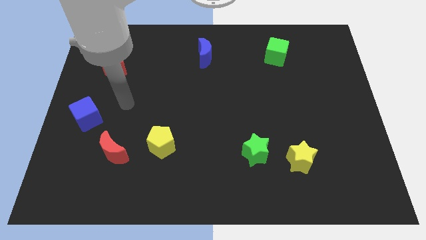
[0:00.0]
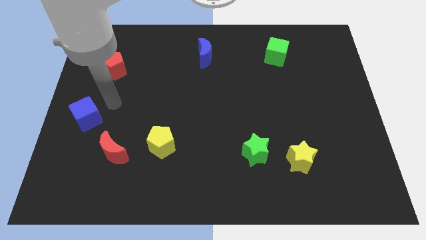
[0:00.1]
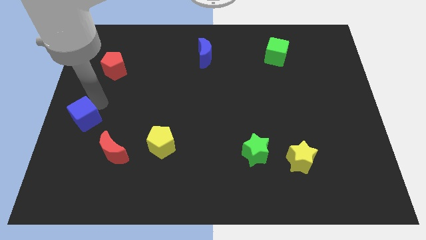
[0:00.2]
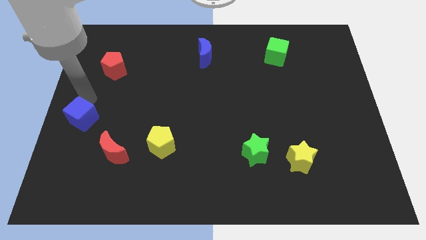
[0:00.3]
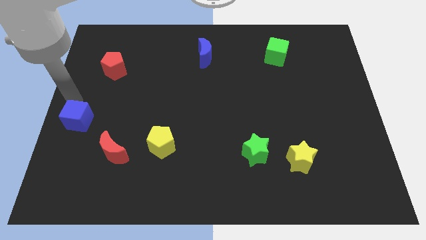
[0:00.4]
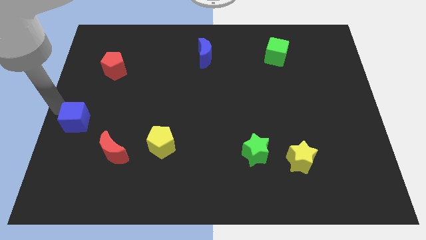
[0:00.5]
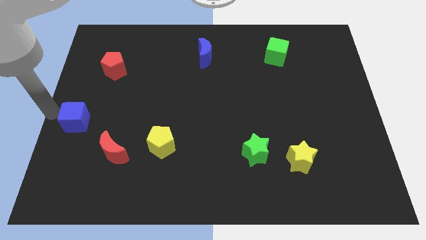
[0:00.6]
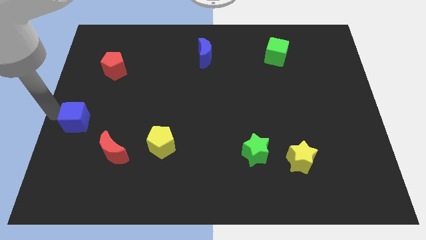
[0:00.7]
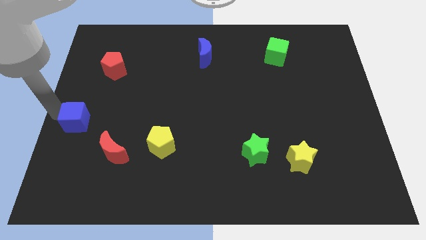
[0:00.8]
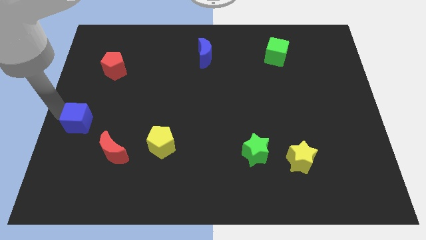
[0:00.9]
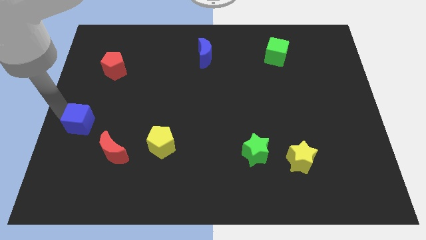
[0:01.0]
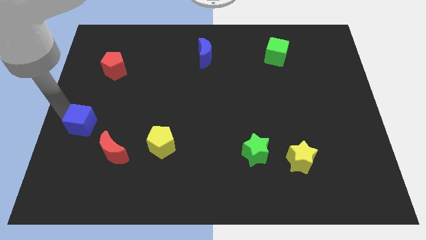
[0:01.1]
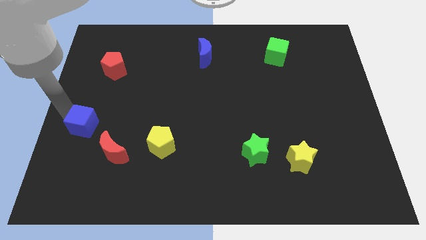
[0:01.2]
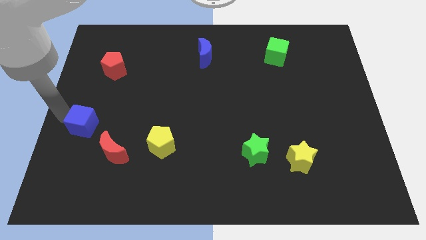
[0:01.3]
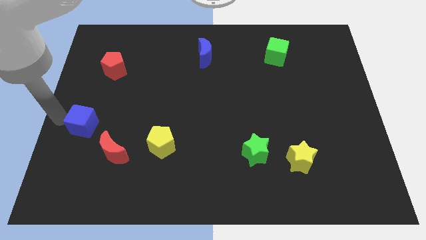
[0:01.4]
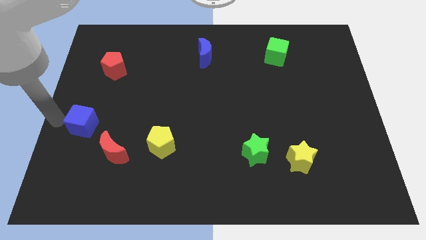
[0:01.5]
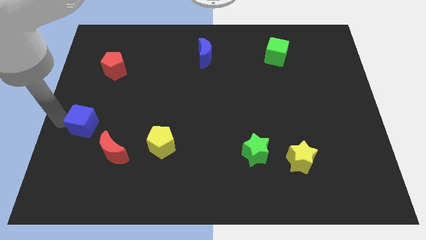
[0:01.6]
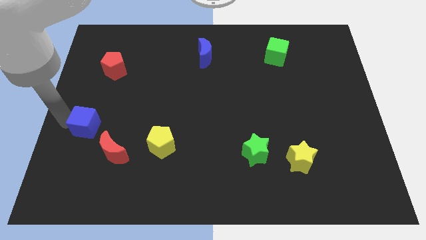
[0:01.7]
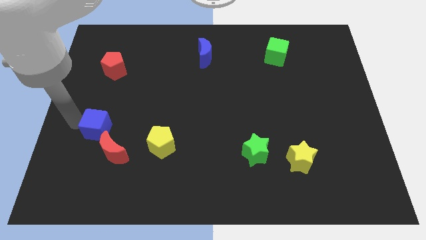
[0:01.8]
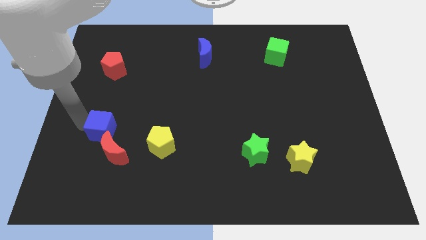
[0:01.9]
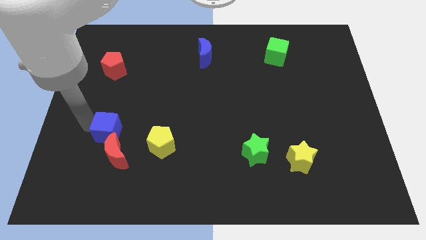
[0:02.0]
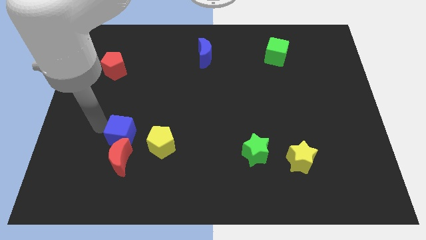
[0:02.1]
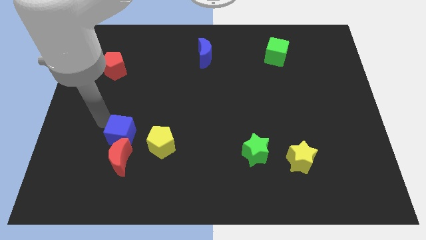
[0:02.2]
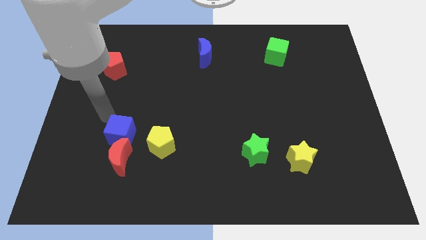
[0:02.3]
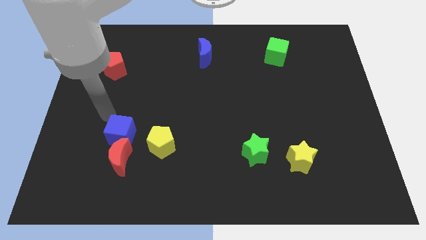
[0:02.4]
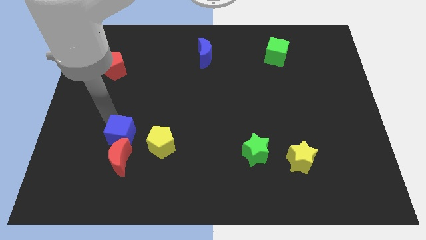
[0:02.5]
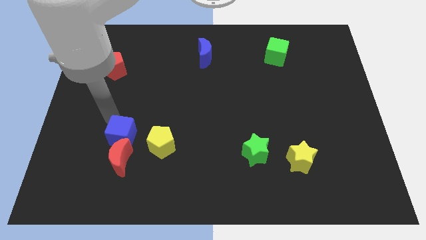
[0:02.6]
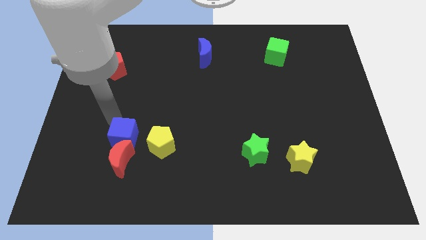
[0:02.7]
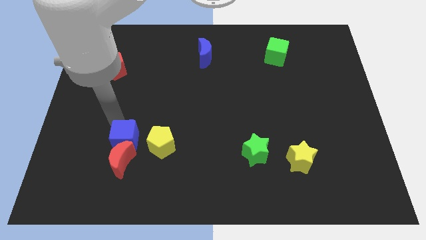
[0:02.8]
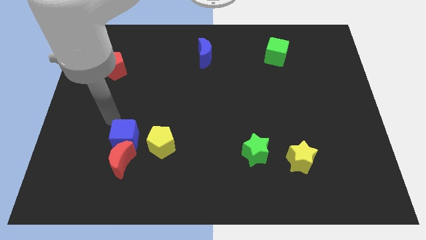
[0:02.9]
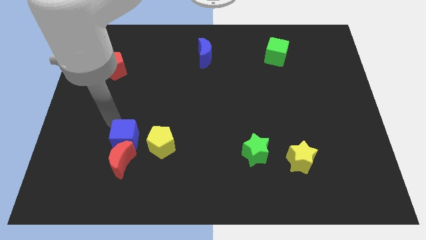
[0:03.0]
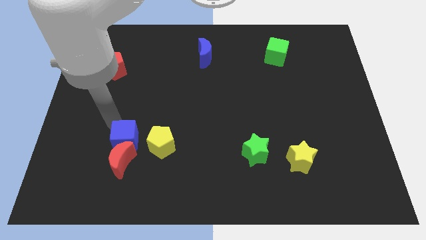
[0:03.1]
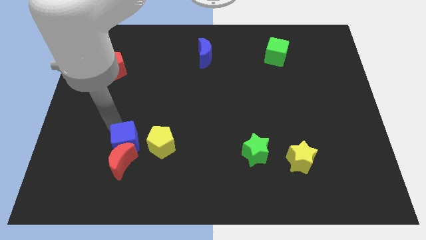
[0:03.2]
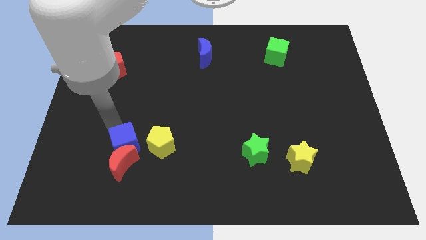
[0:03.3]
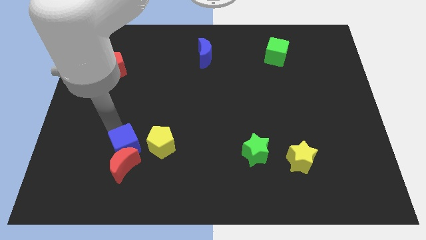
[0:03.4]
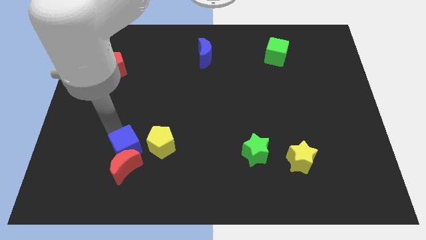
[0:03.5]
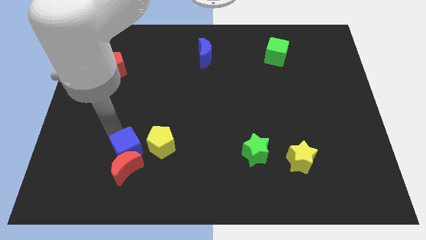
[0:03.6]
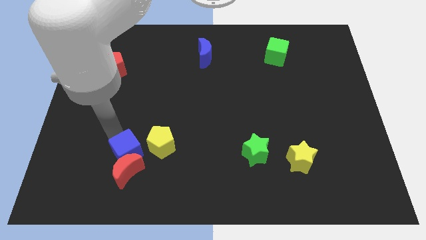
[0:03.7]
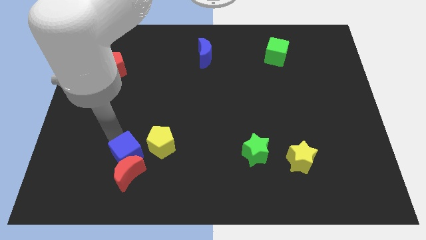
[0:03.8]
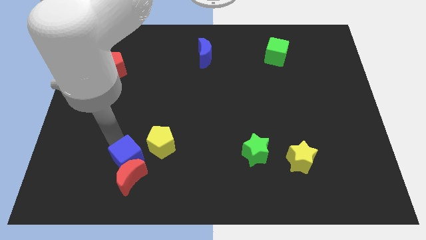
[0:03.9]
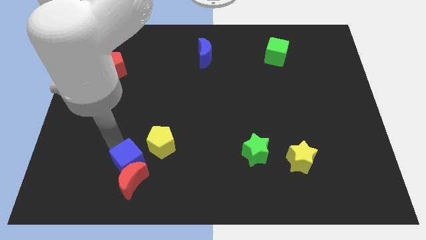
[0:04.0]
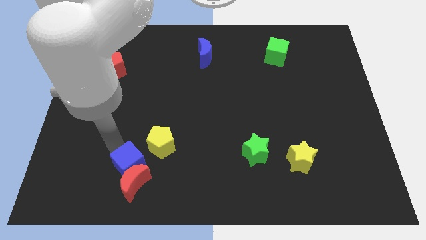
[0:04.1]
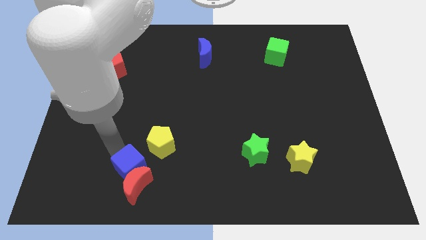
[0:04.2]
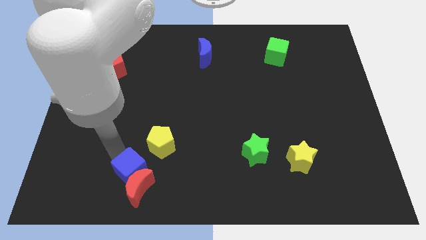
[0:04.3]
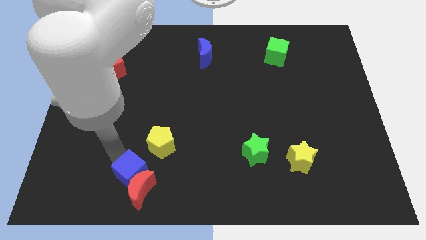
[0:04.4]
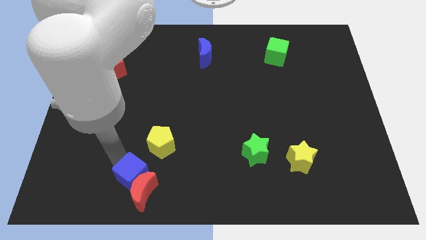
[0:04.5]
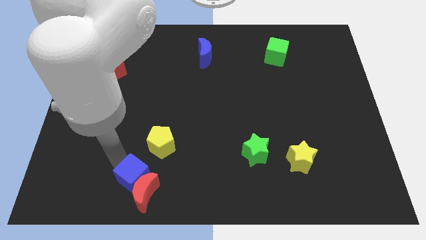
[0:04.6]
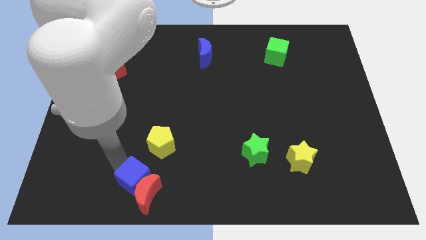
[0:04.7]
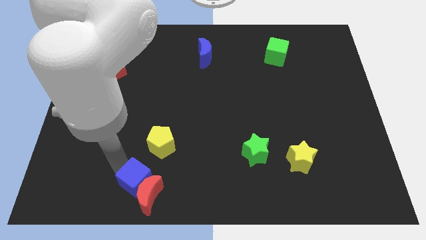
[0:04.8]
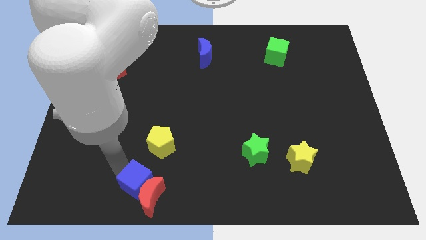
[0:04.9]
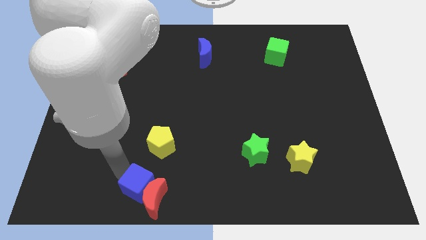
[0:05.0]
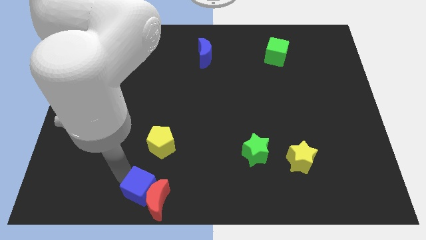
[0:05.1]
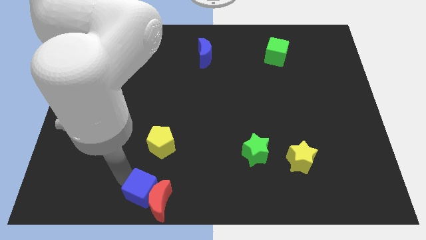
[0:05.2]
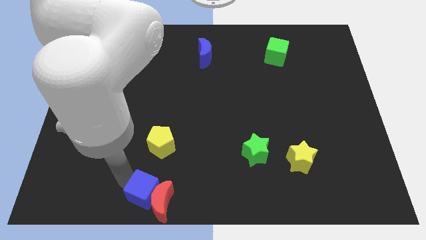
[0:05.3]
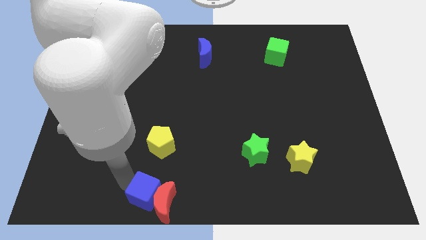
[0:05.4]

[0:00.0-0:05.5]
slide the blue cube to the bottom
